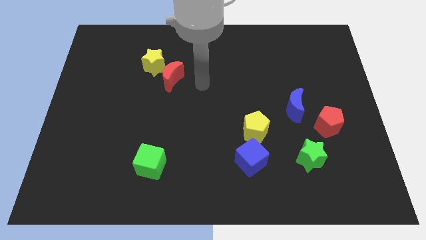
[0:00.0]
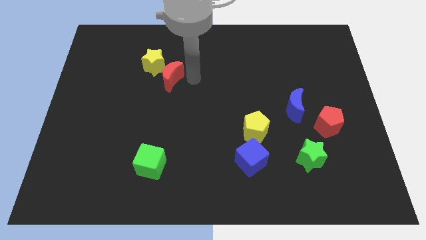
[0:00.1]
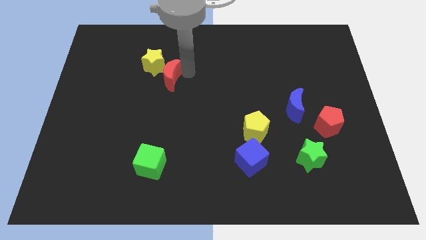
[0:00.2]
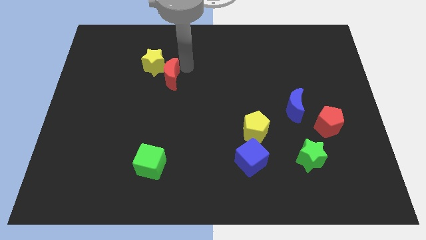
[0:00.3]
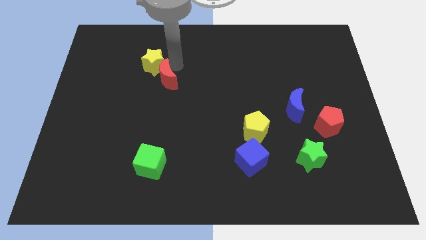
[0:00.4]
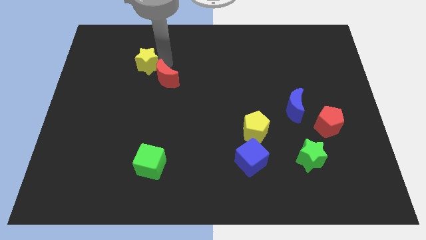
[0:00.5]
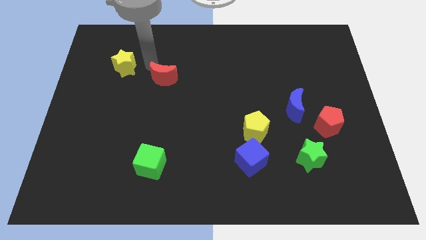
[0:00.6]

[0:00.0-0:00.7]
move the red moon away from the yellow star

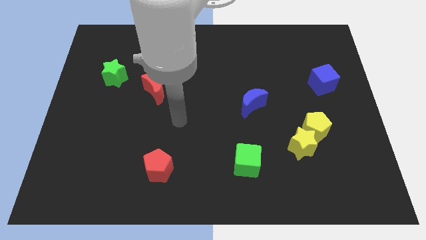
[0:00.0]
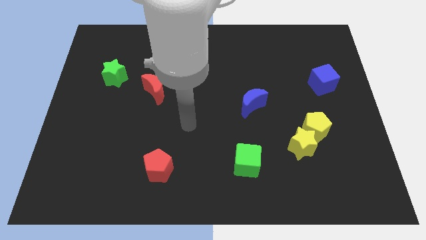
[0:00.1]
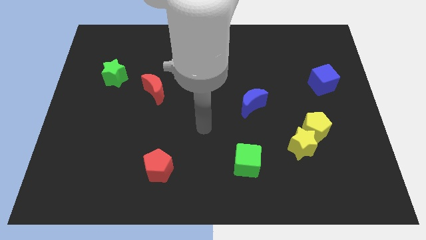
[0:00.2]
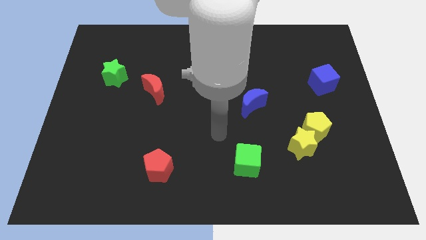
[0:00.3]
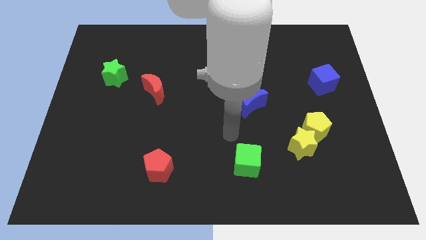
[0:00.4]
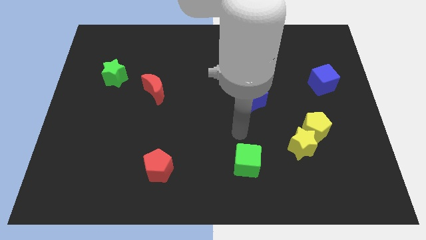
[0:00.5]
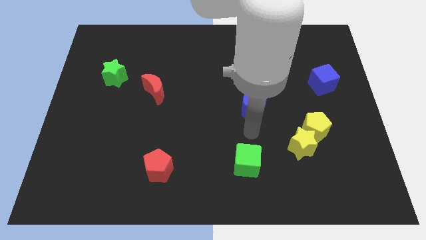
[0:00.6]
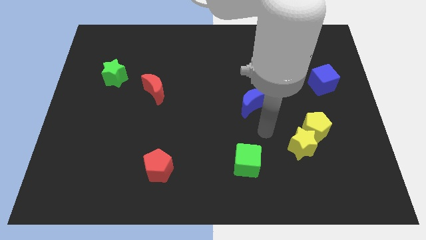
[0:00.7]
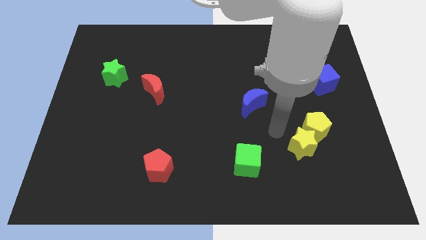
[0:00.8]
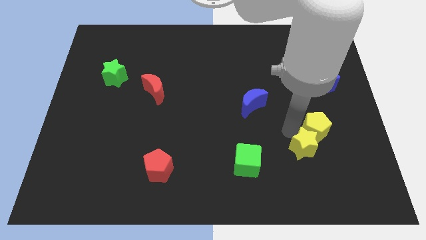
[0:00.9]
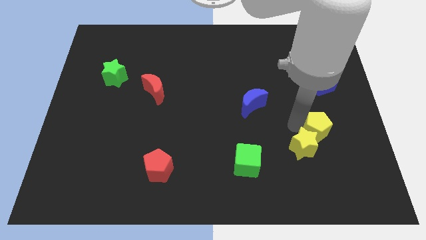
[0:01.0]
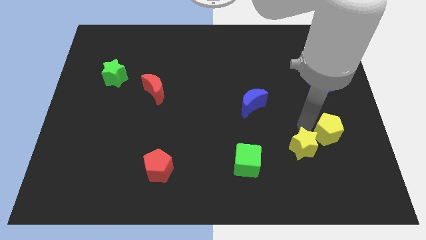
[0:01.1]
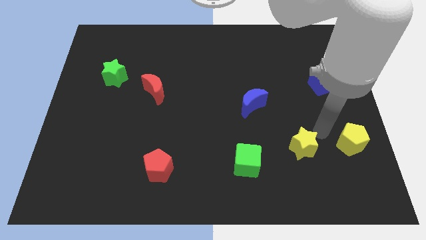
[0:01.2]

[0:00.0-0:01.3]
pull the yellow star apart from the yellow pentagon

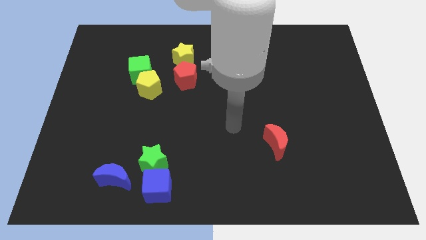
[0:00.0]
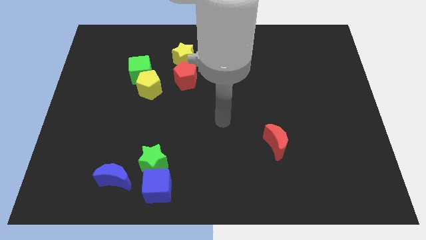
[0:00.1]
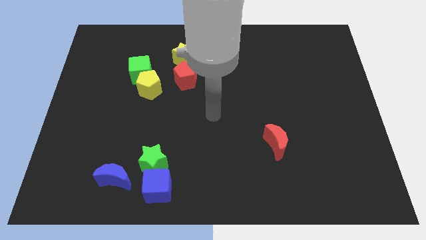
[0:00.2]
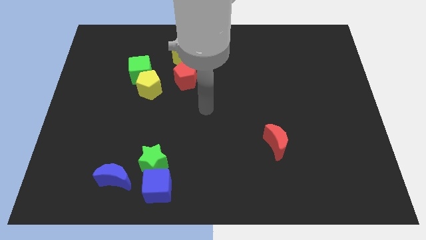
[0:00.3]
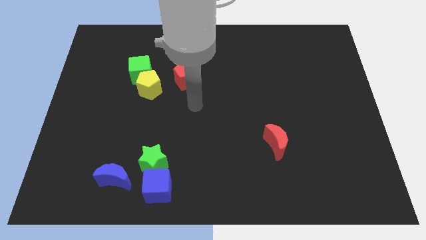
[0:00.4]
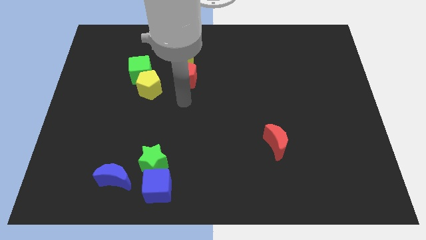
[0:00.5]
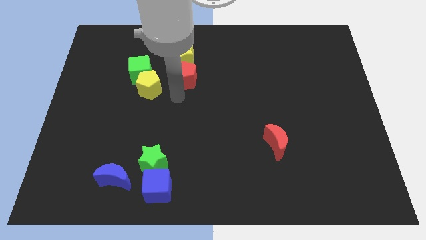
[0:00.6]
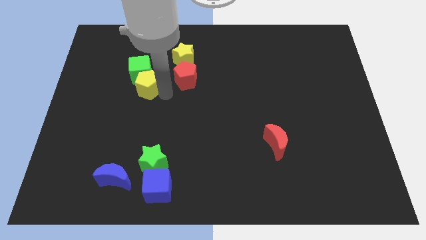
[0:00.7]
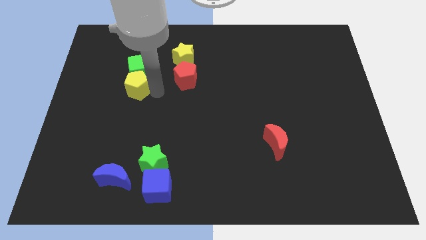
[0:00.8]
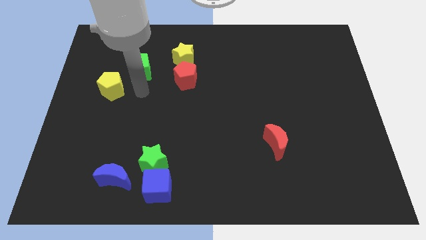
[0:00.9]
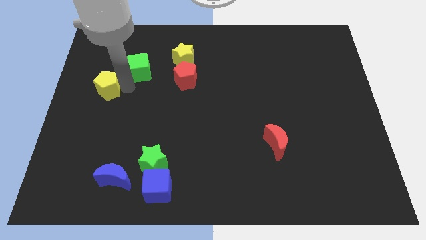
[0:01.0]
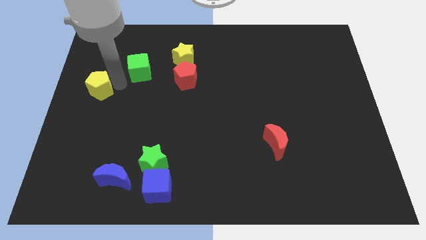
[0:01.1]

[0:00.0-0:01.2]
separate the green cube from the yellow pentagon

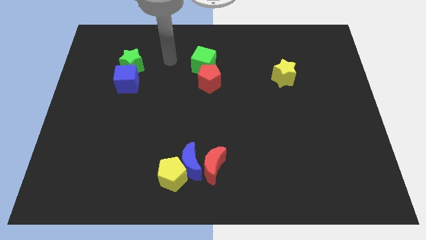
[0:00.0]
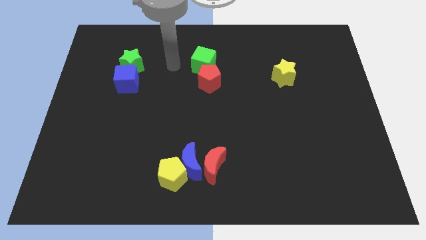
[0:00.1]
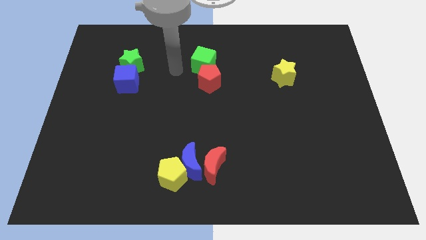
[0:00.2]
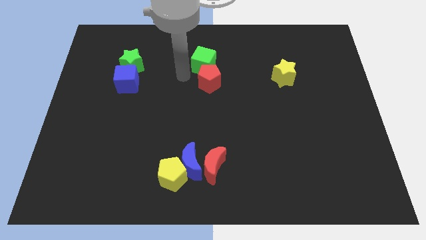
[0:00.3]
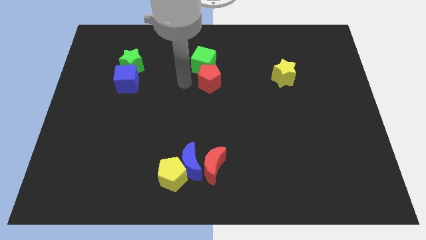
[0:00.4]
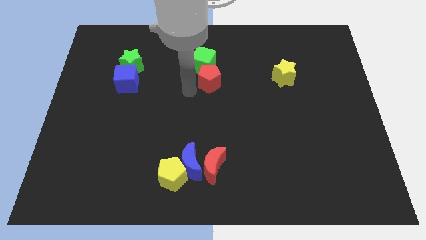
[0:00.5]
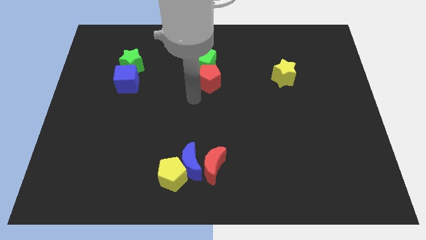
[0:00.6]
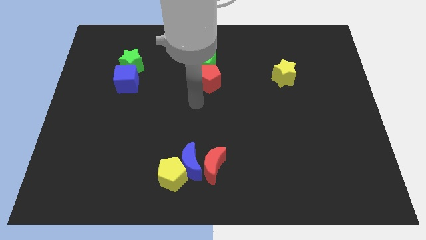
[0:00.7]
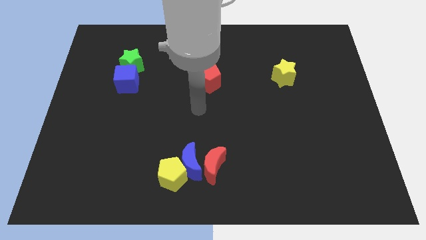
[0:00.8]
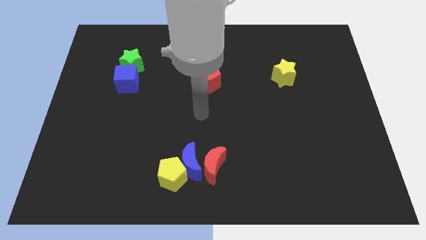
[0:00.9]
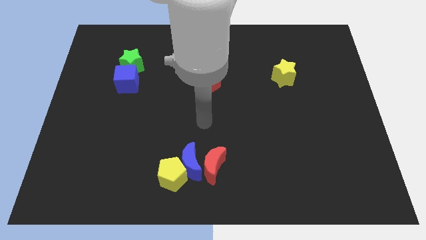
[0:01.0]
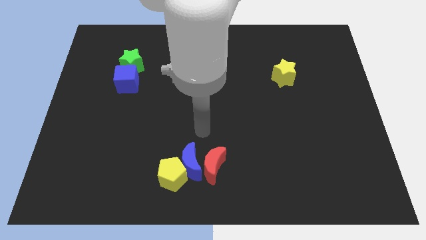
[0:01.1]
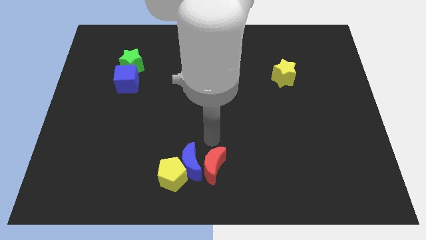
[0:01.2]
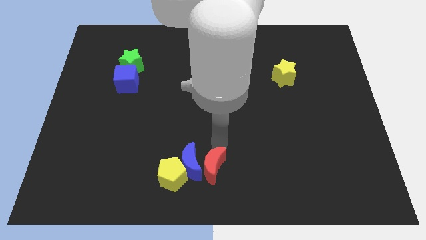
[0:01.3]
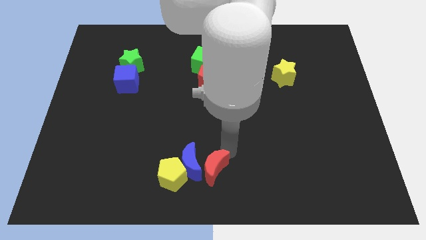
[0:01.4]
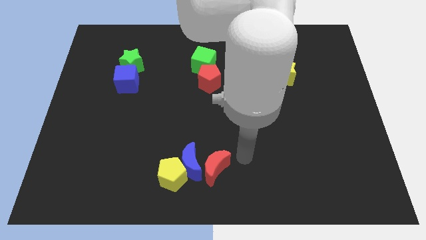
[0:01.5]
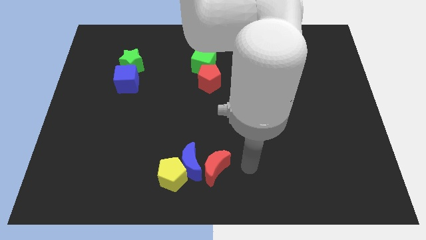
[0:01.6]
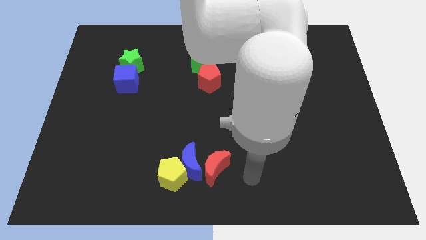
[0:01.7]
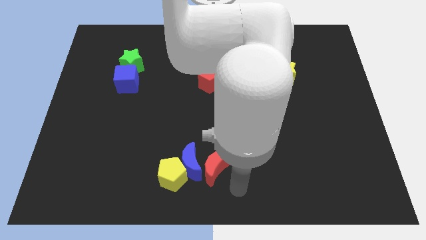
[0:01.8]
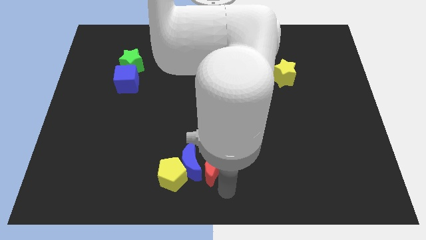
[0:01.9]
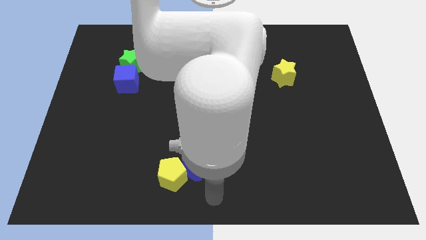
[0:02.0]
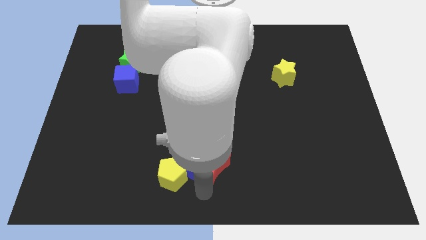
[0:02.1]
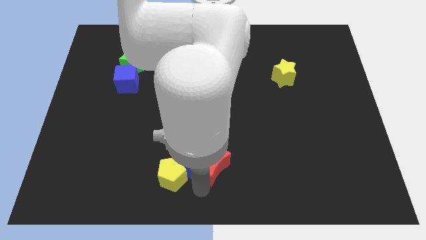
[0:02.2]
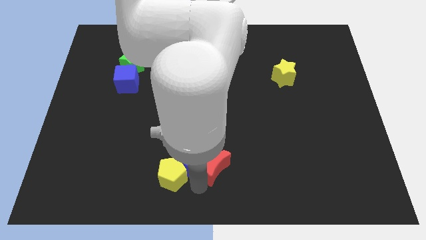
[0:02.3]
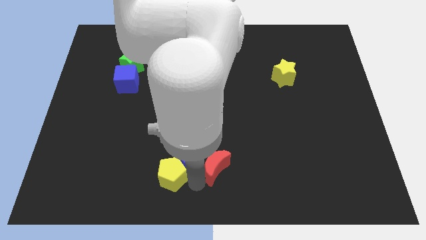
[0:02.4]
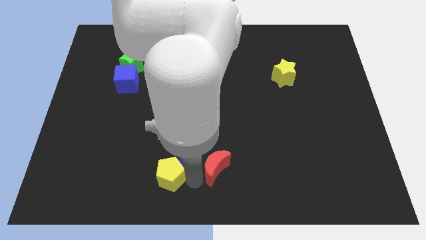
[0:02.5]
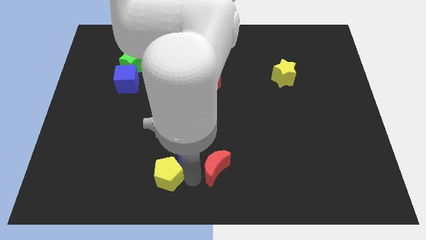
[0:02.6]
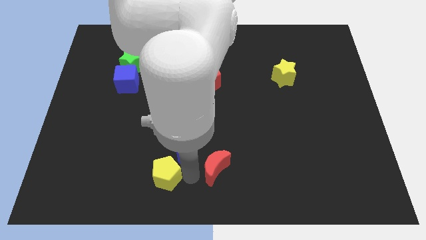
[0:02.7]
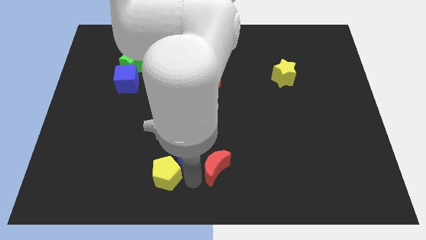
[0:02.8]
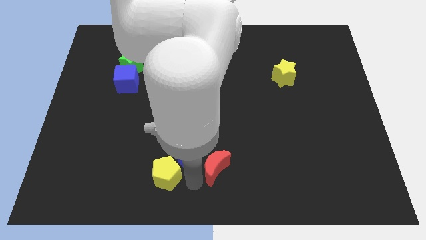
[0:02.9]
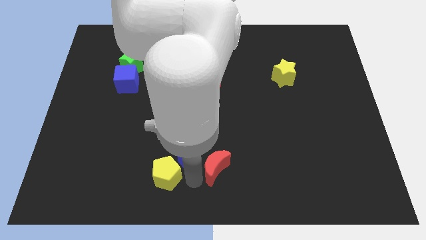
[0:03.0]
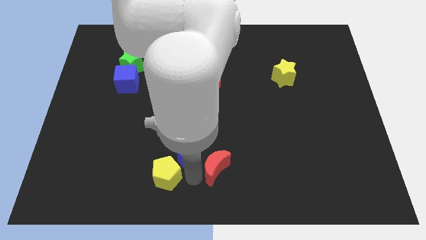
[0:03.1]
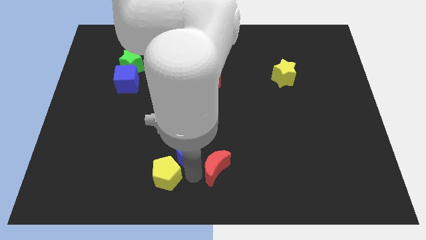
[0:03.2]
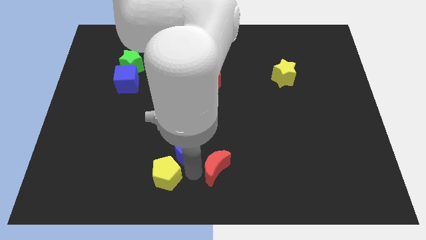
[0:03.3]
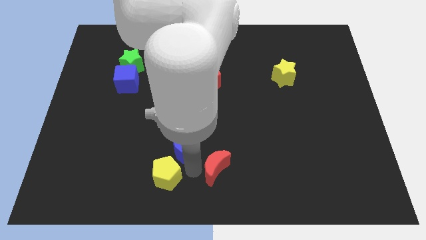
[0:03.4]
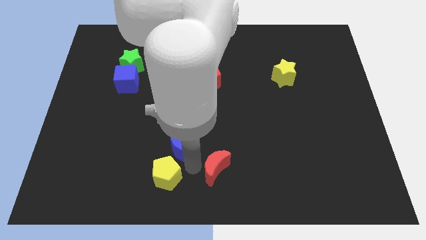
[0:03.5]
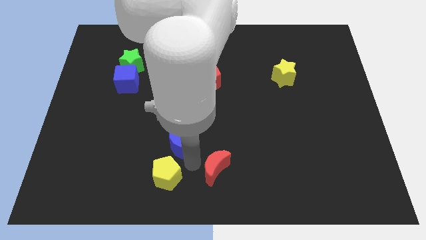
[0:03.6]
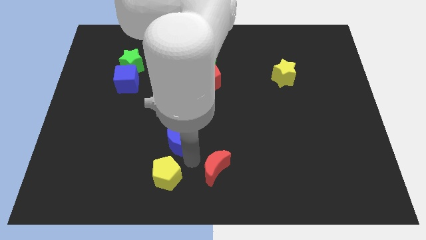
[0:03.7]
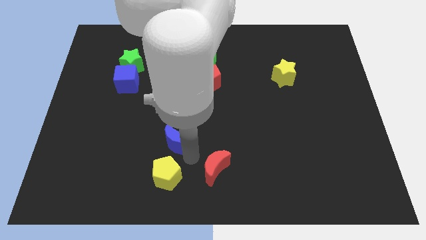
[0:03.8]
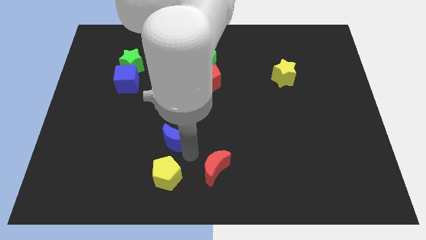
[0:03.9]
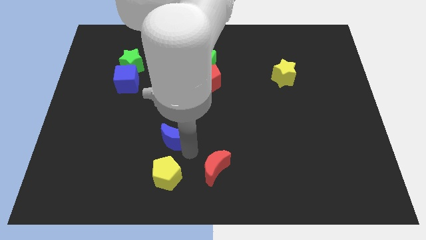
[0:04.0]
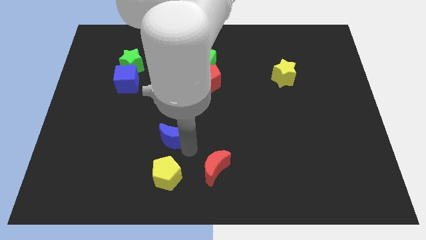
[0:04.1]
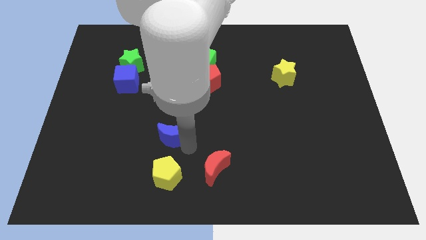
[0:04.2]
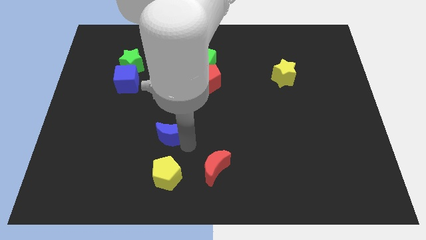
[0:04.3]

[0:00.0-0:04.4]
move the blue moon away from the yellow pentagon and red moon

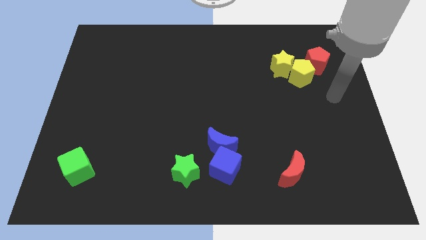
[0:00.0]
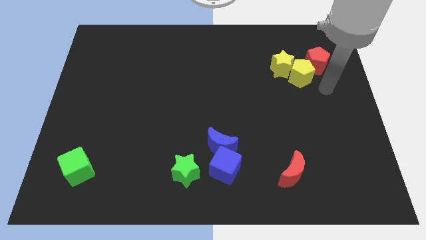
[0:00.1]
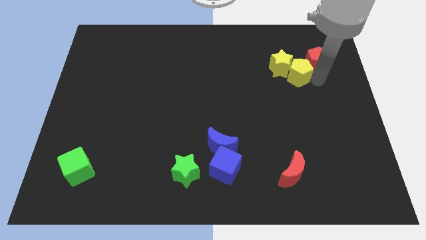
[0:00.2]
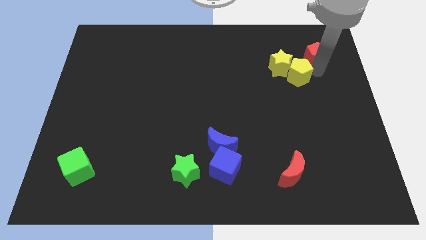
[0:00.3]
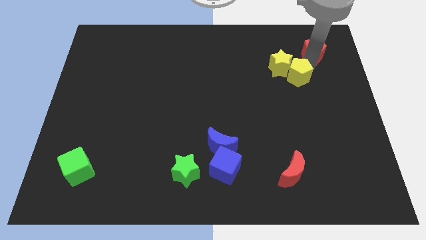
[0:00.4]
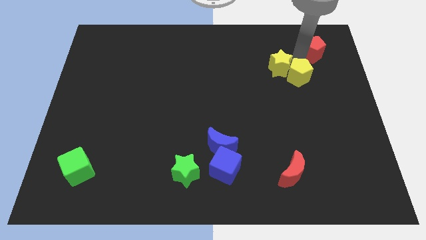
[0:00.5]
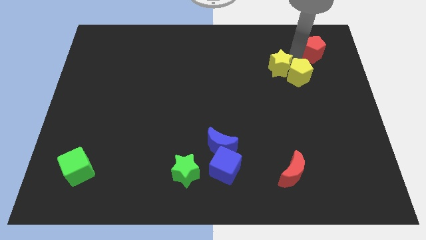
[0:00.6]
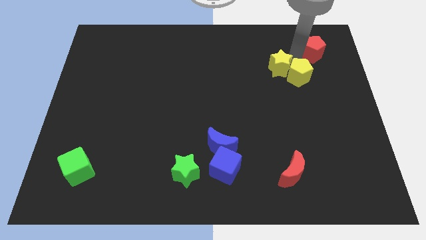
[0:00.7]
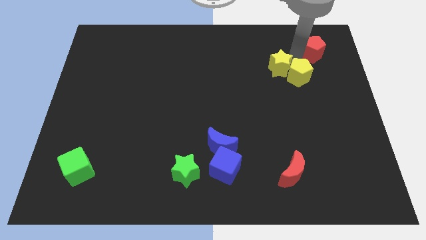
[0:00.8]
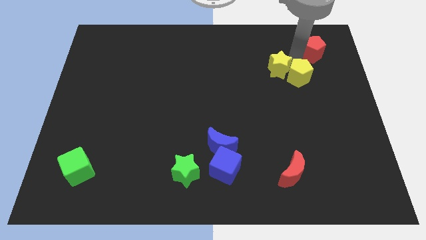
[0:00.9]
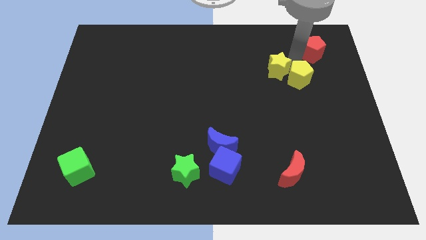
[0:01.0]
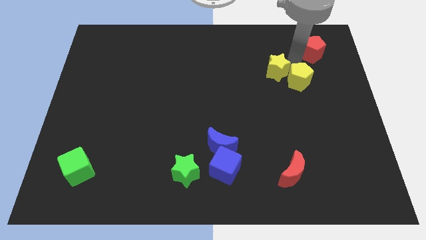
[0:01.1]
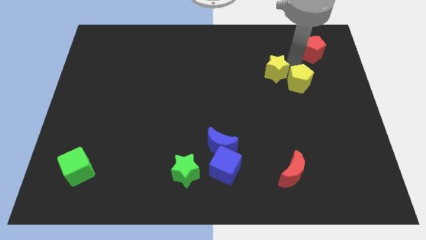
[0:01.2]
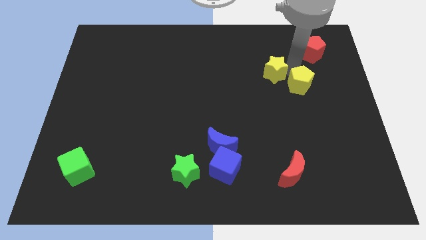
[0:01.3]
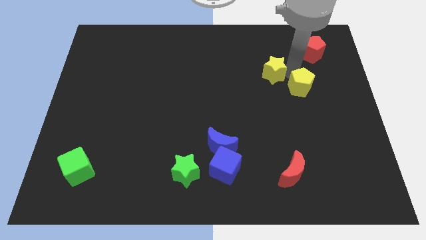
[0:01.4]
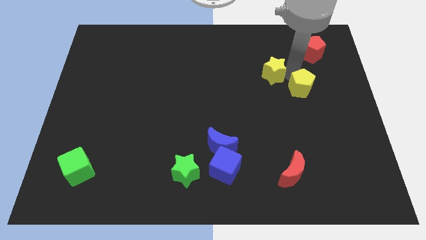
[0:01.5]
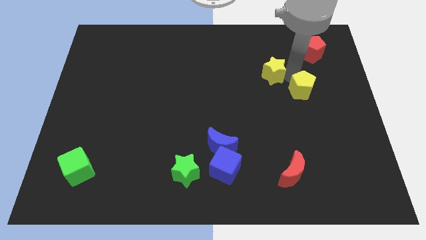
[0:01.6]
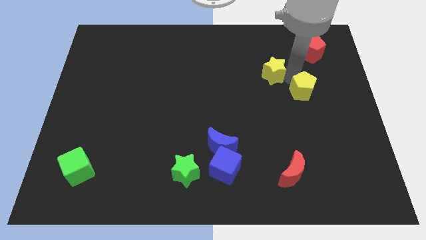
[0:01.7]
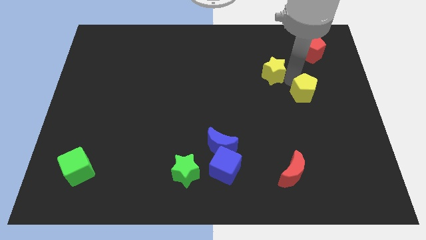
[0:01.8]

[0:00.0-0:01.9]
separate the yellow pentagon from the yellow star and red pentagon
